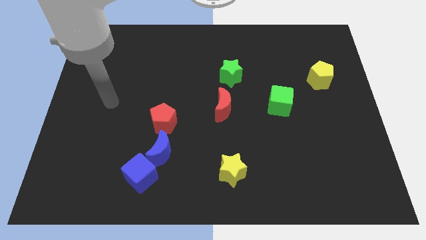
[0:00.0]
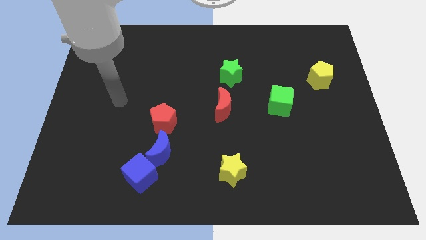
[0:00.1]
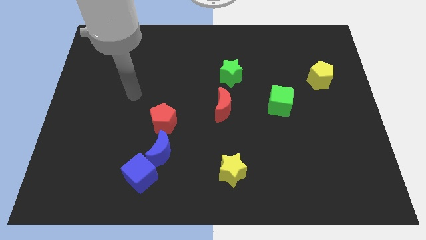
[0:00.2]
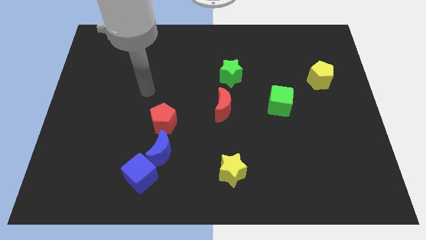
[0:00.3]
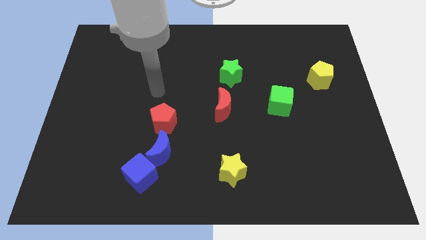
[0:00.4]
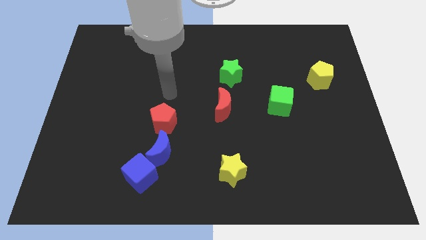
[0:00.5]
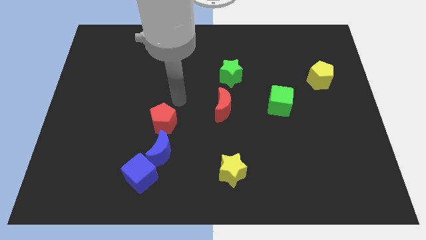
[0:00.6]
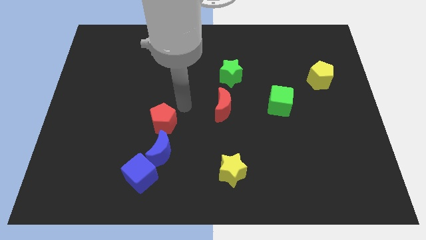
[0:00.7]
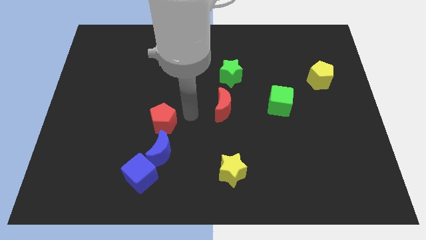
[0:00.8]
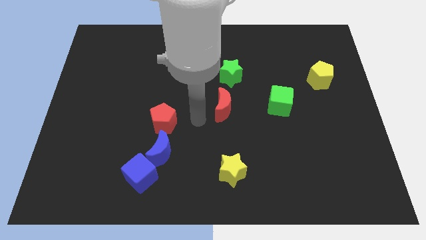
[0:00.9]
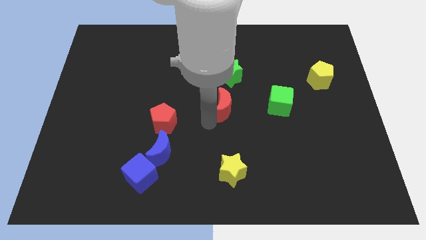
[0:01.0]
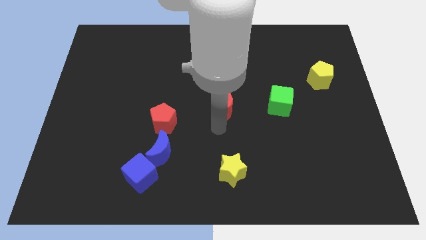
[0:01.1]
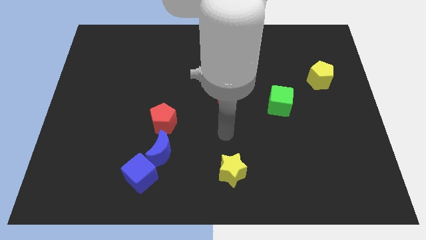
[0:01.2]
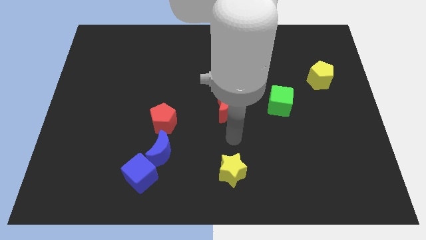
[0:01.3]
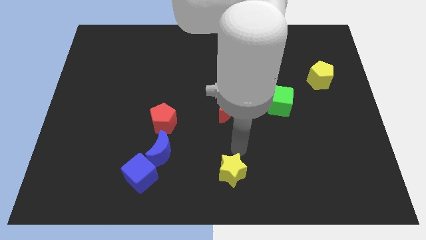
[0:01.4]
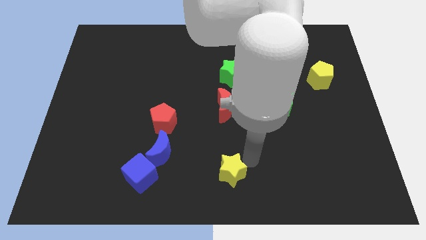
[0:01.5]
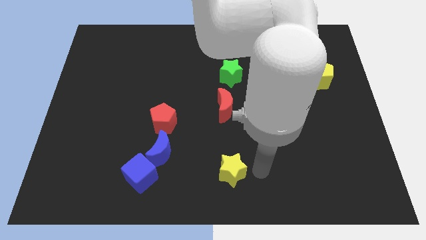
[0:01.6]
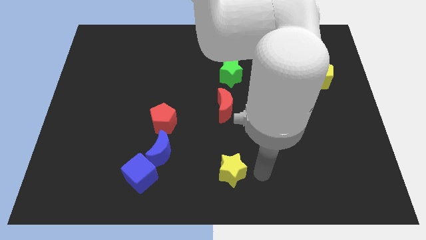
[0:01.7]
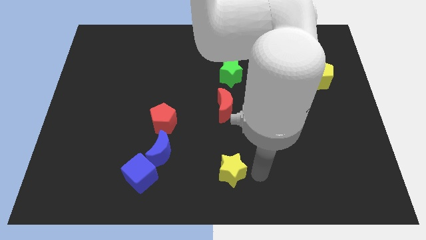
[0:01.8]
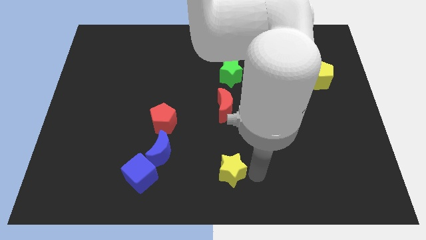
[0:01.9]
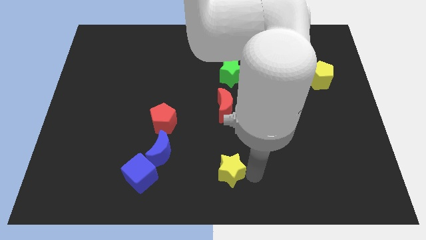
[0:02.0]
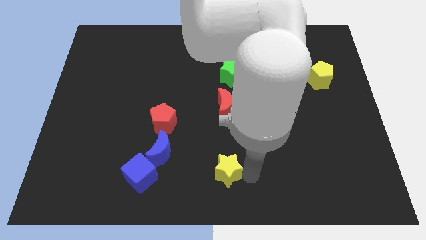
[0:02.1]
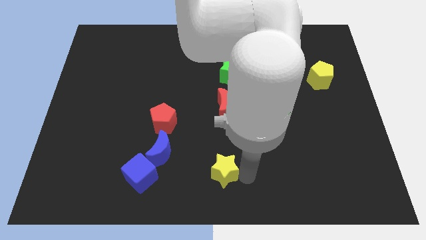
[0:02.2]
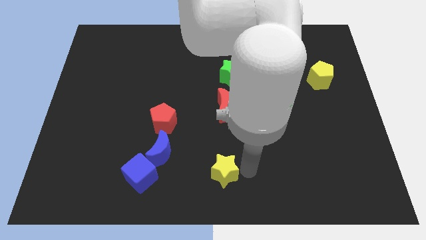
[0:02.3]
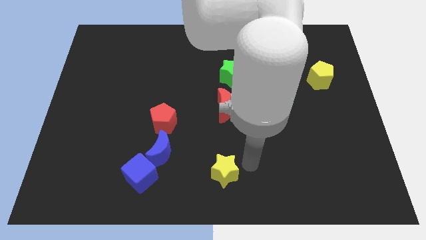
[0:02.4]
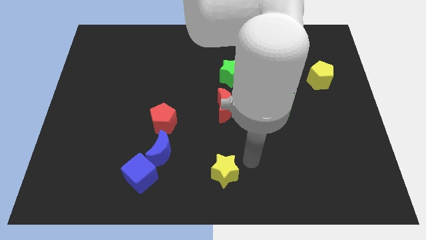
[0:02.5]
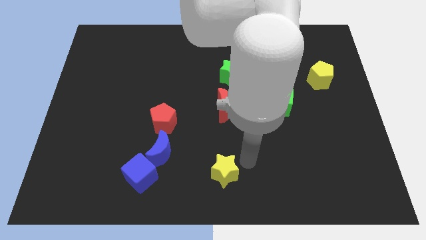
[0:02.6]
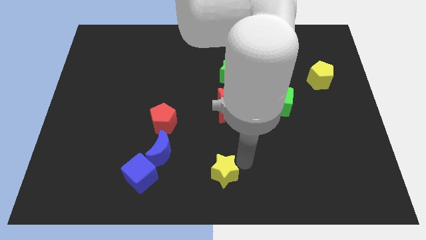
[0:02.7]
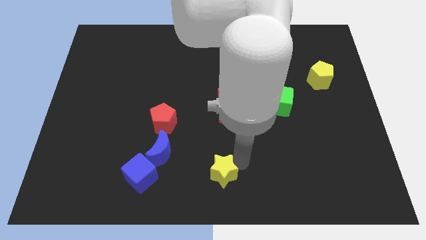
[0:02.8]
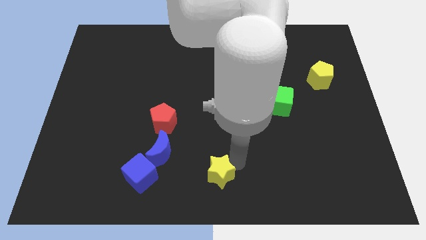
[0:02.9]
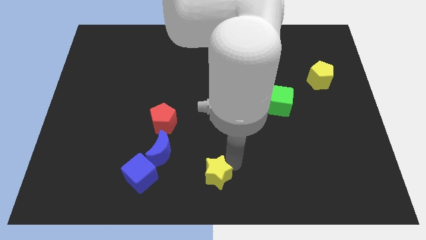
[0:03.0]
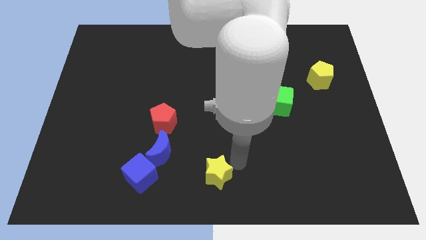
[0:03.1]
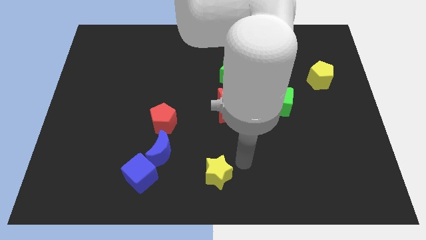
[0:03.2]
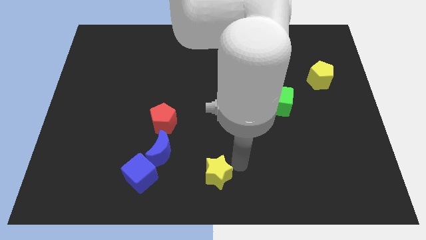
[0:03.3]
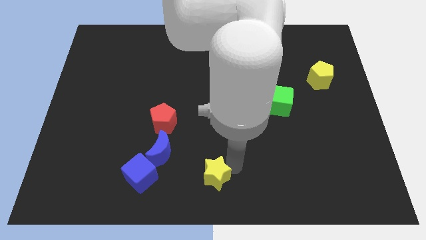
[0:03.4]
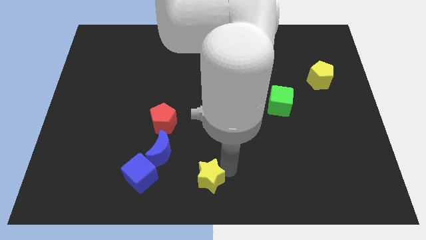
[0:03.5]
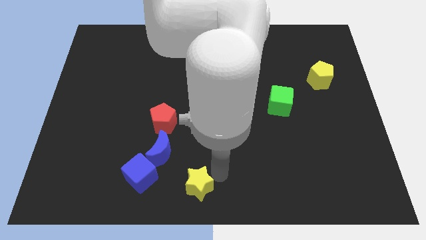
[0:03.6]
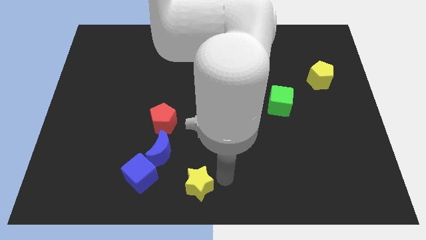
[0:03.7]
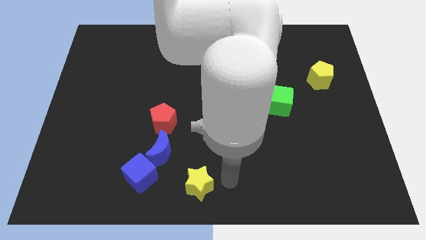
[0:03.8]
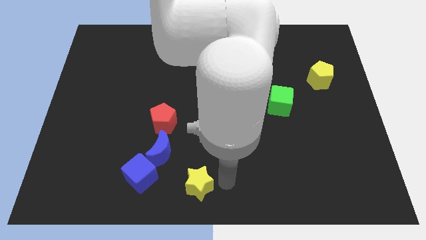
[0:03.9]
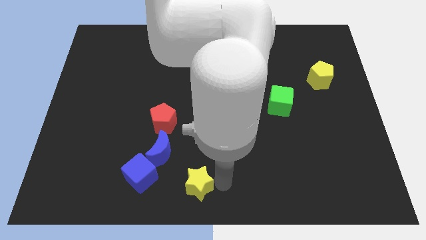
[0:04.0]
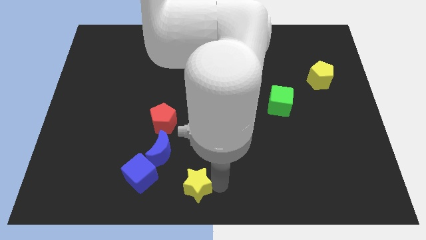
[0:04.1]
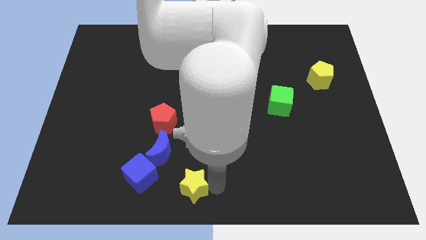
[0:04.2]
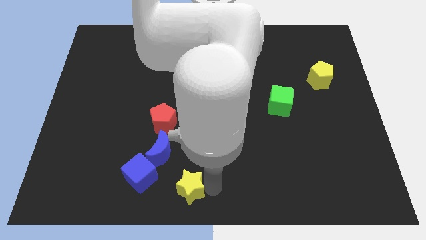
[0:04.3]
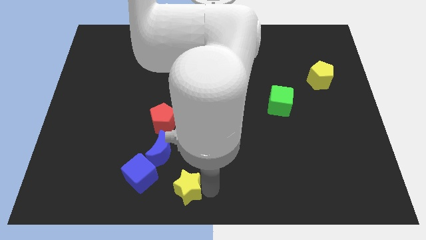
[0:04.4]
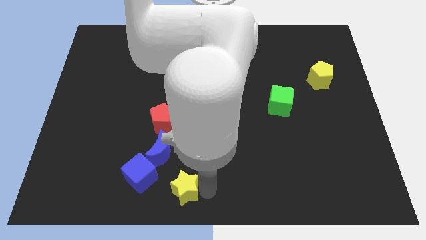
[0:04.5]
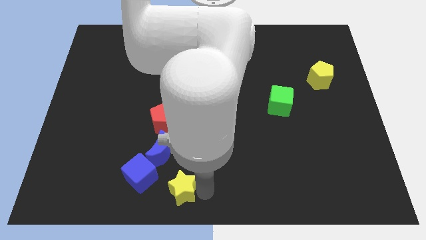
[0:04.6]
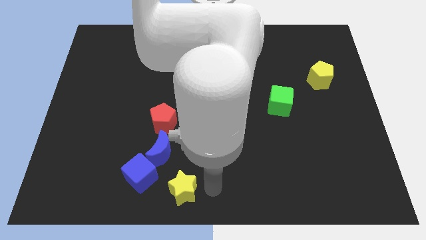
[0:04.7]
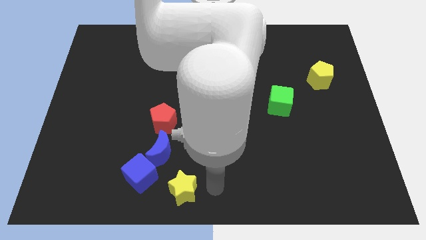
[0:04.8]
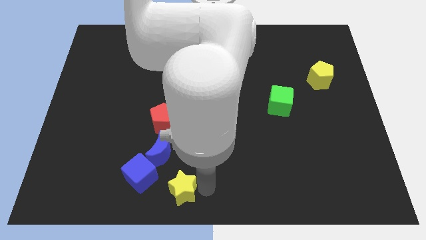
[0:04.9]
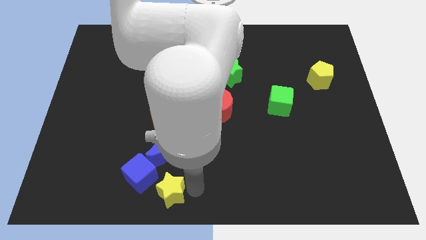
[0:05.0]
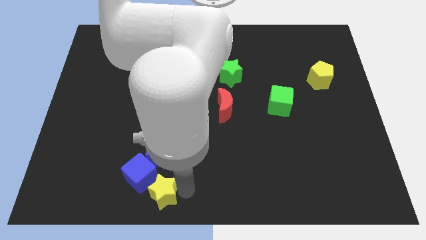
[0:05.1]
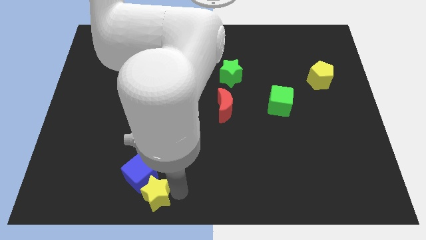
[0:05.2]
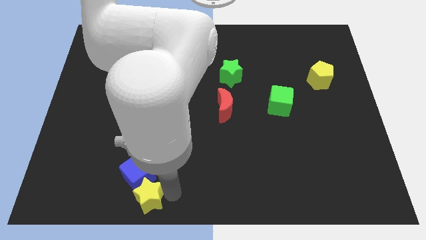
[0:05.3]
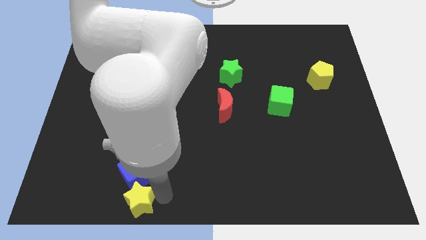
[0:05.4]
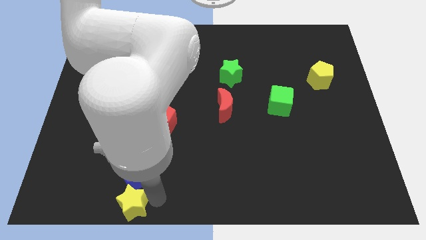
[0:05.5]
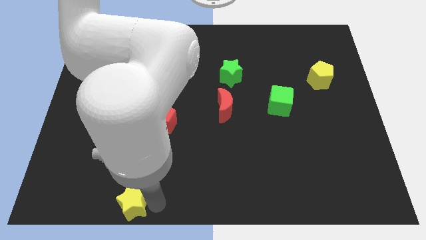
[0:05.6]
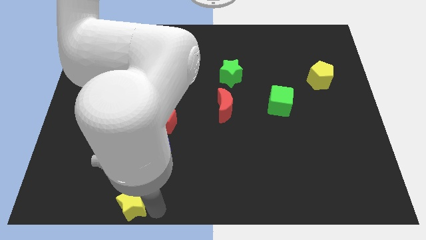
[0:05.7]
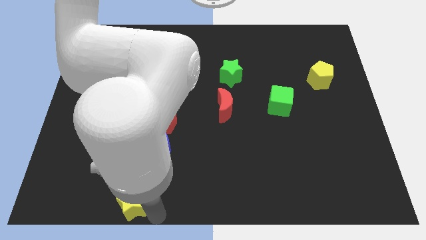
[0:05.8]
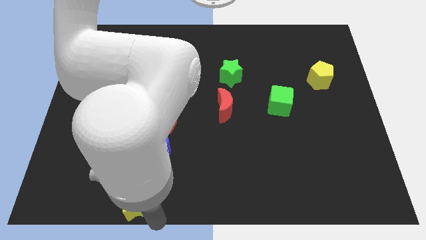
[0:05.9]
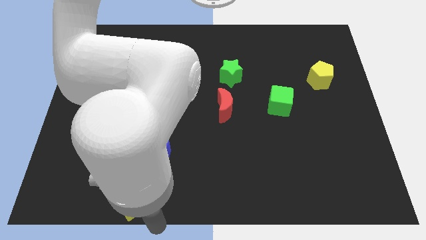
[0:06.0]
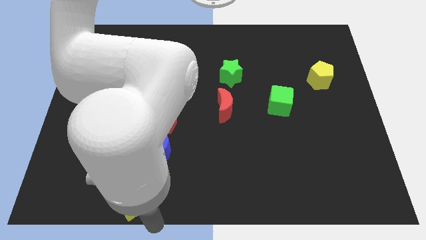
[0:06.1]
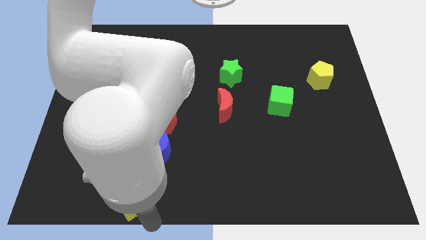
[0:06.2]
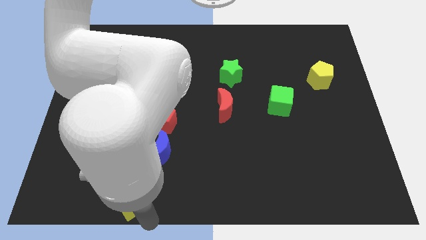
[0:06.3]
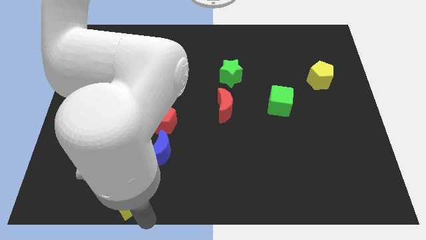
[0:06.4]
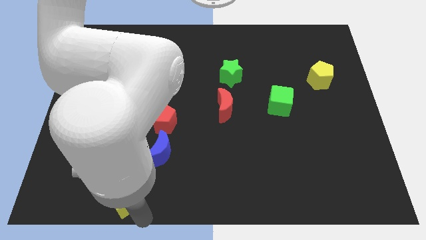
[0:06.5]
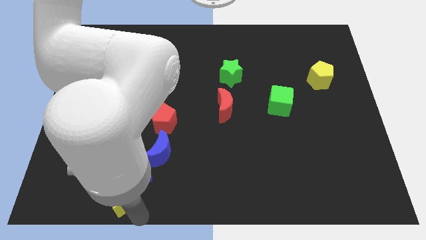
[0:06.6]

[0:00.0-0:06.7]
slide the yellow star left

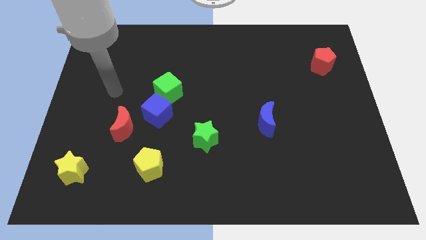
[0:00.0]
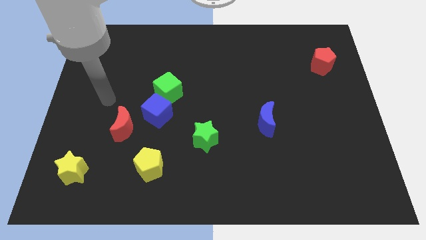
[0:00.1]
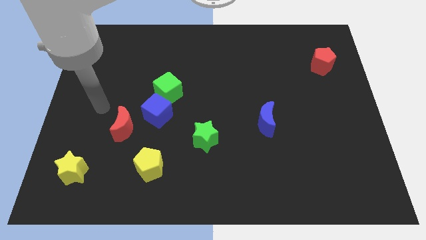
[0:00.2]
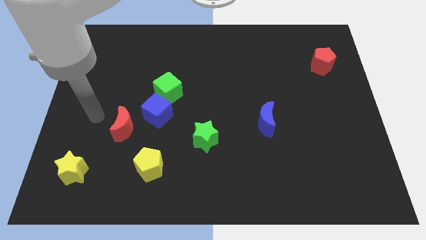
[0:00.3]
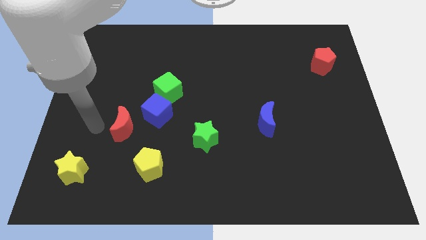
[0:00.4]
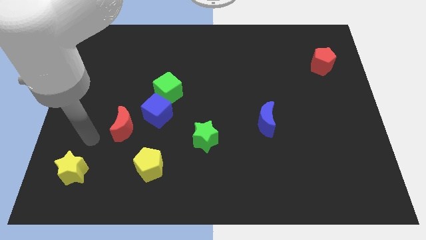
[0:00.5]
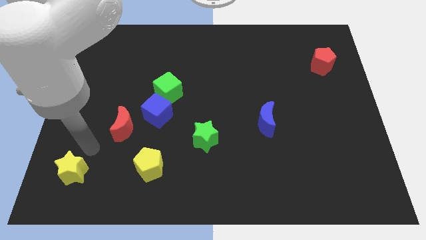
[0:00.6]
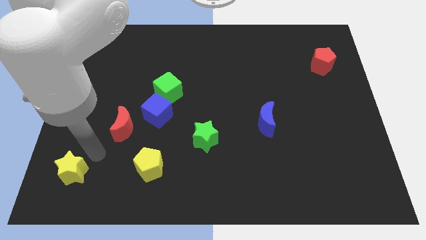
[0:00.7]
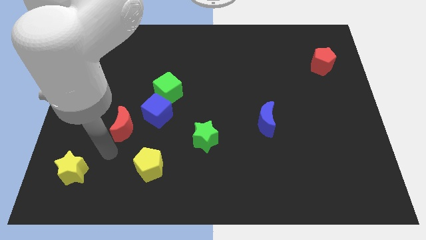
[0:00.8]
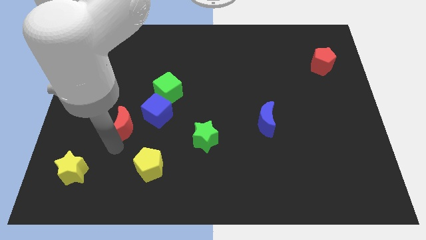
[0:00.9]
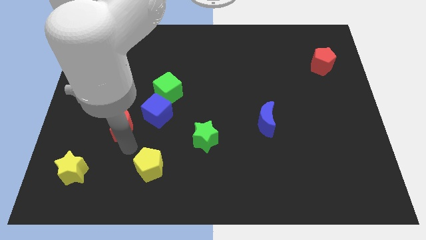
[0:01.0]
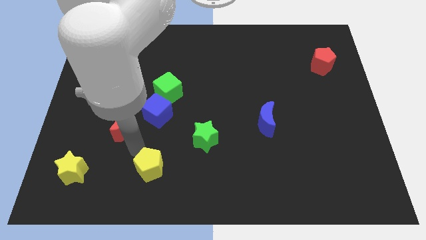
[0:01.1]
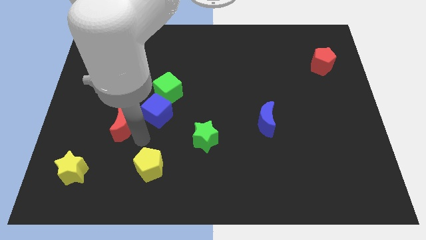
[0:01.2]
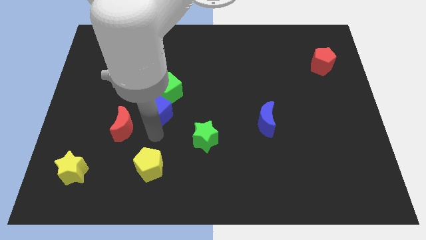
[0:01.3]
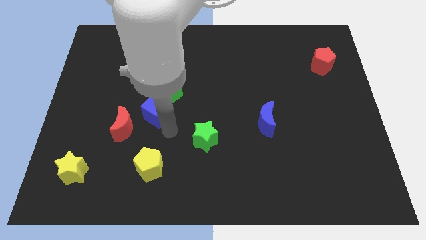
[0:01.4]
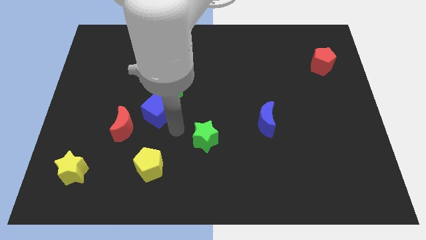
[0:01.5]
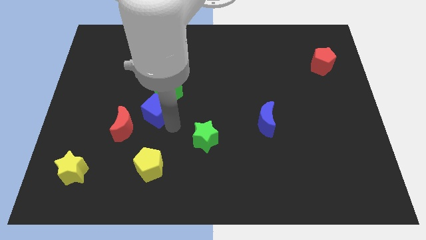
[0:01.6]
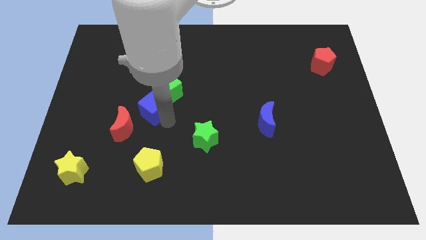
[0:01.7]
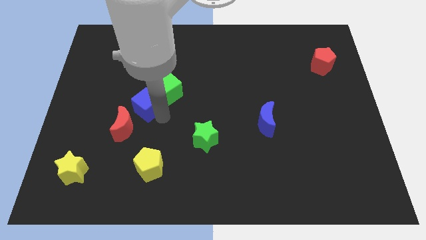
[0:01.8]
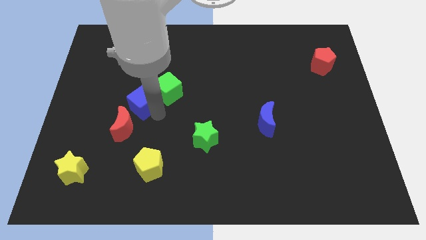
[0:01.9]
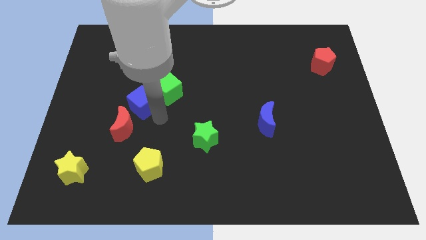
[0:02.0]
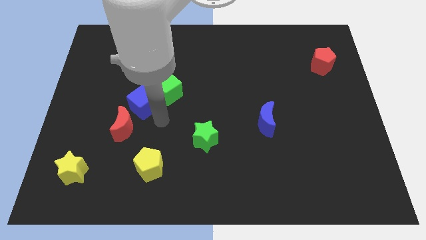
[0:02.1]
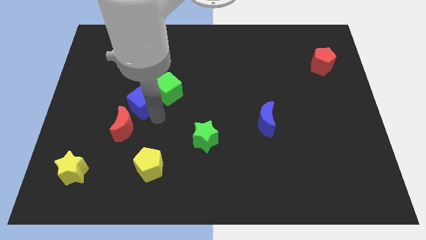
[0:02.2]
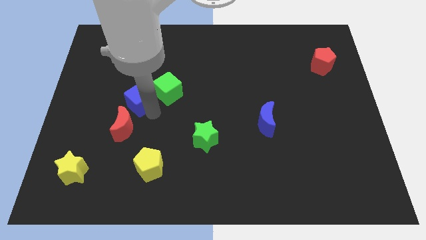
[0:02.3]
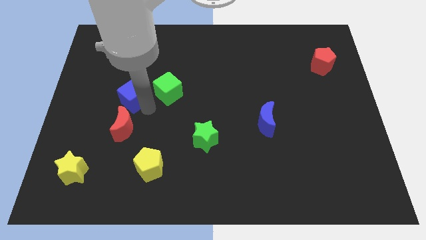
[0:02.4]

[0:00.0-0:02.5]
move the blue cube up and to the left somewhat
